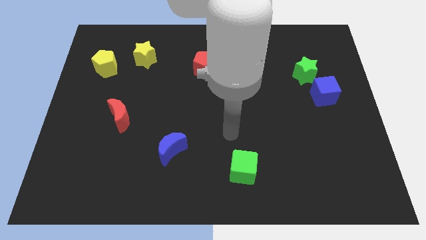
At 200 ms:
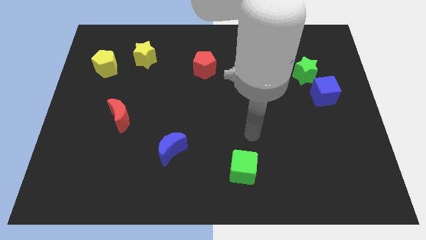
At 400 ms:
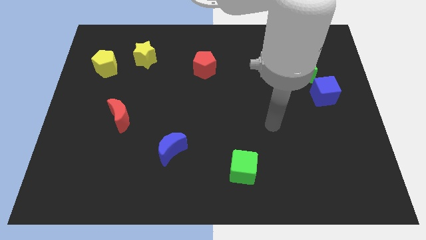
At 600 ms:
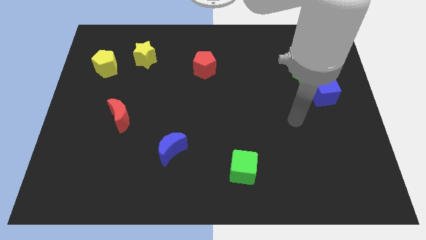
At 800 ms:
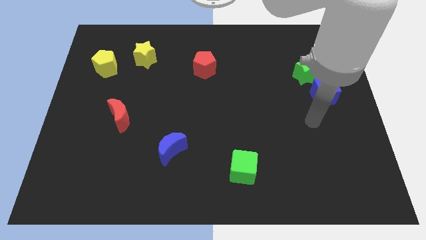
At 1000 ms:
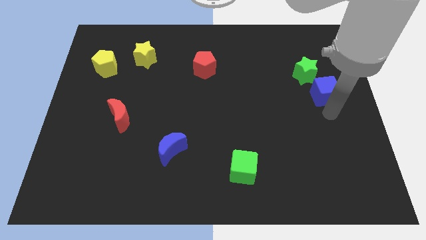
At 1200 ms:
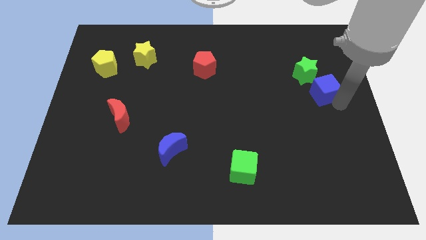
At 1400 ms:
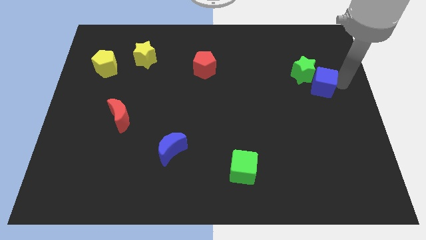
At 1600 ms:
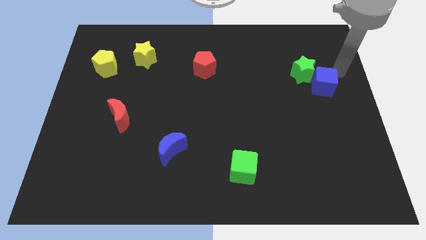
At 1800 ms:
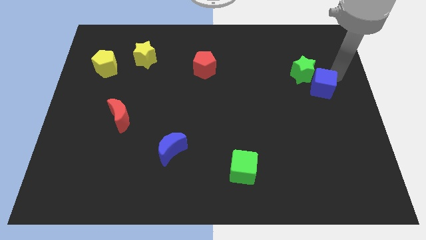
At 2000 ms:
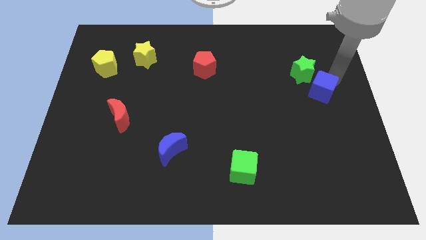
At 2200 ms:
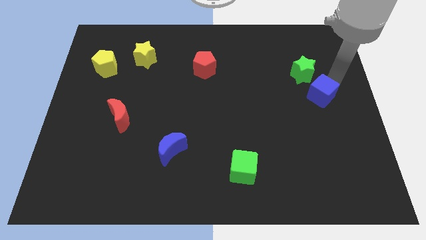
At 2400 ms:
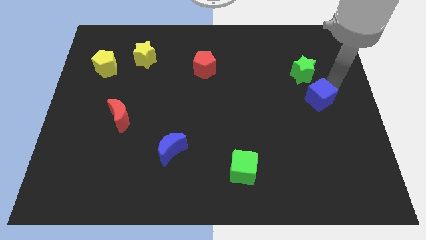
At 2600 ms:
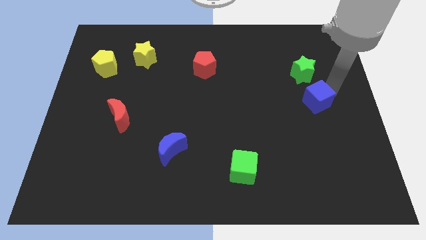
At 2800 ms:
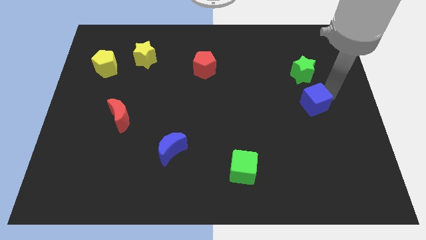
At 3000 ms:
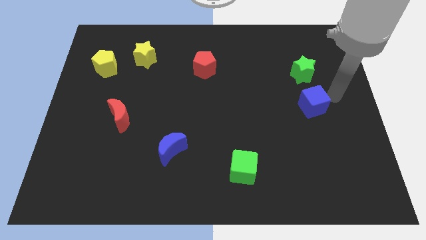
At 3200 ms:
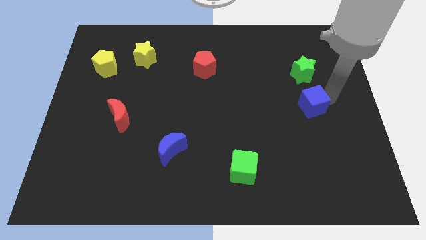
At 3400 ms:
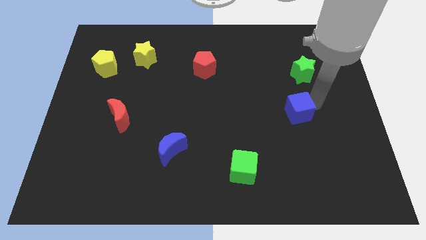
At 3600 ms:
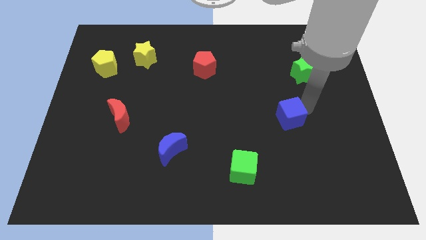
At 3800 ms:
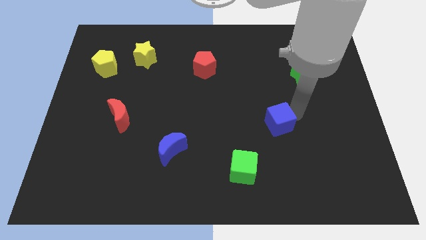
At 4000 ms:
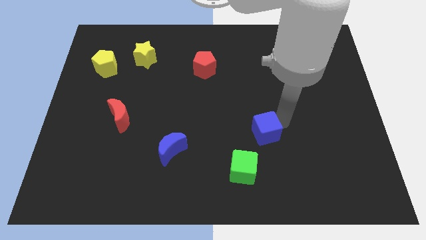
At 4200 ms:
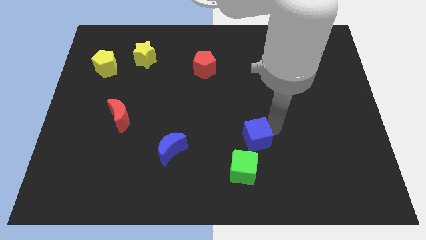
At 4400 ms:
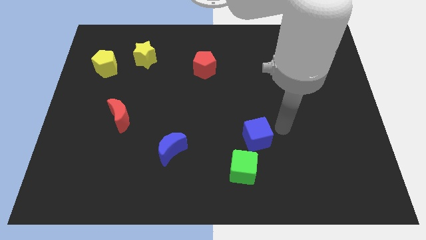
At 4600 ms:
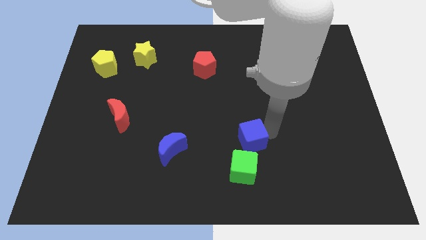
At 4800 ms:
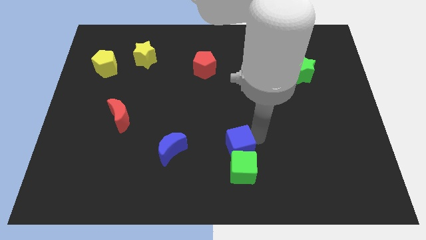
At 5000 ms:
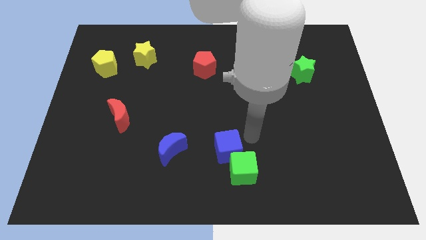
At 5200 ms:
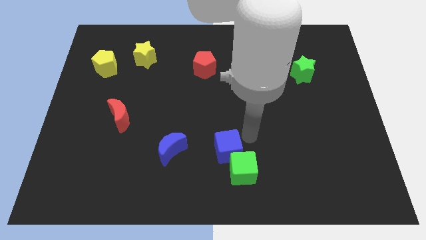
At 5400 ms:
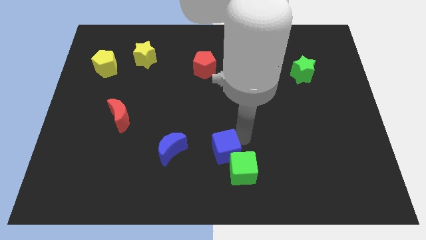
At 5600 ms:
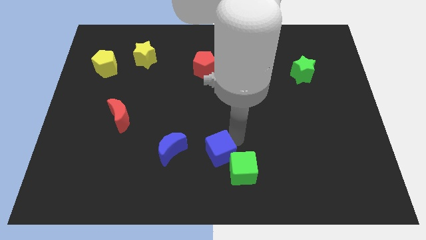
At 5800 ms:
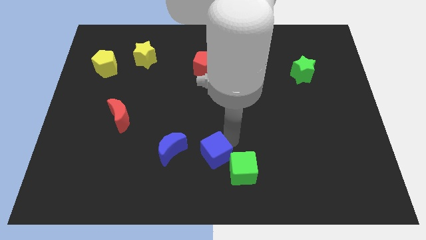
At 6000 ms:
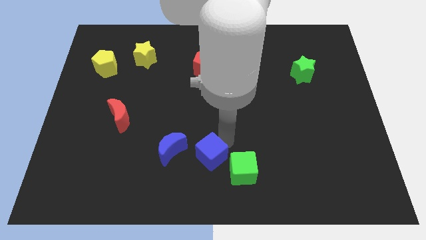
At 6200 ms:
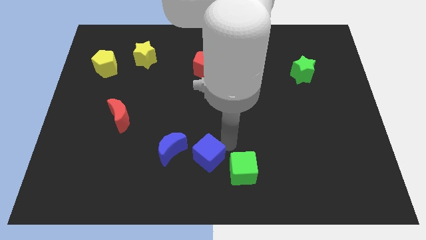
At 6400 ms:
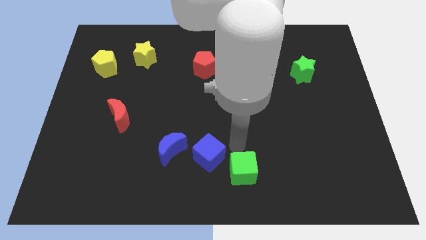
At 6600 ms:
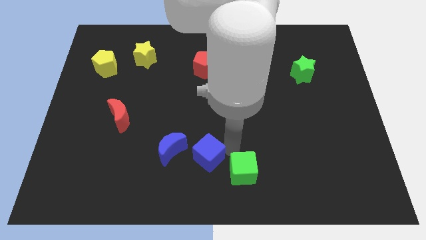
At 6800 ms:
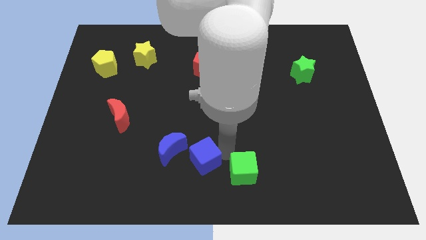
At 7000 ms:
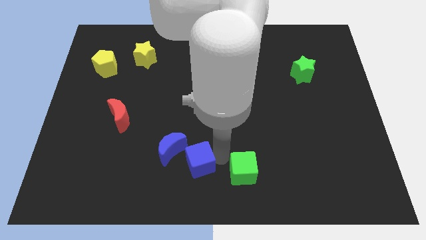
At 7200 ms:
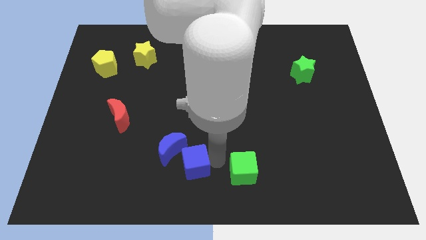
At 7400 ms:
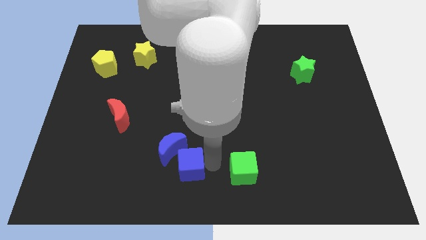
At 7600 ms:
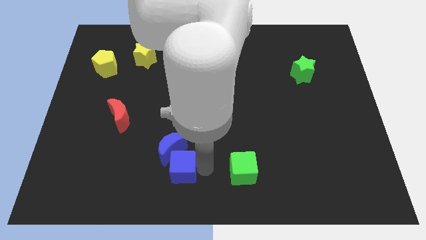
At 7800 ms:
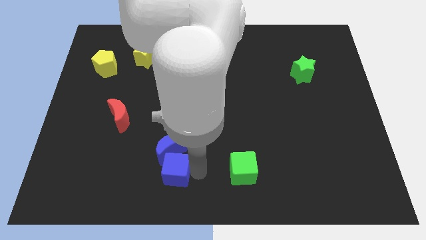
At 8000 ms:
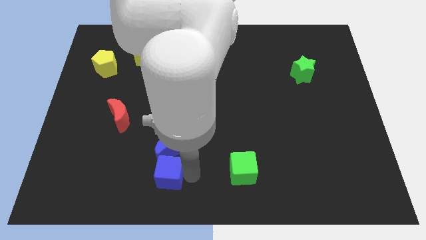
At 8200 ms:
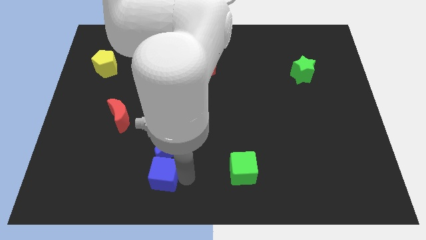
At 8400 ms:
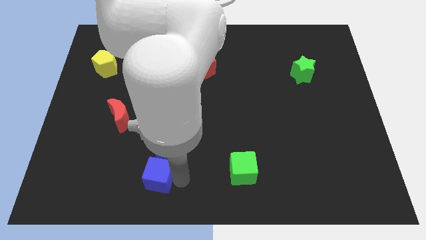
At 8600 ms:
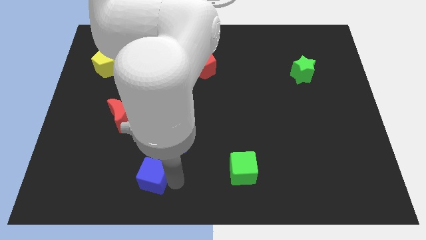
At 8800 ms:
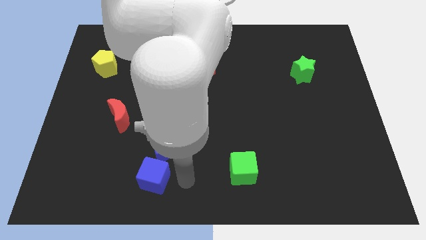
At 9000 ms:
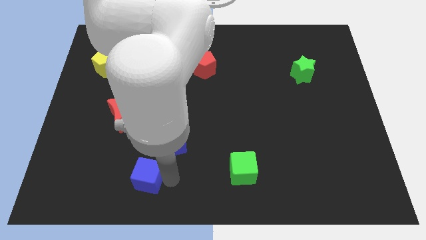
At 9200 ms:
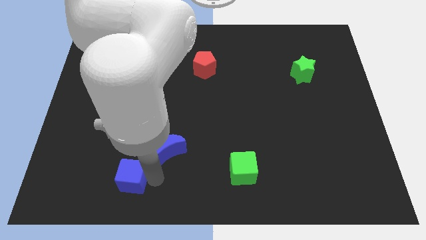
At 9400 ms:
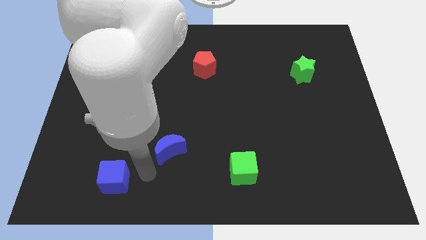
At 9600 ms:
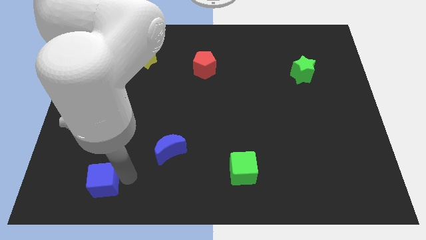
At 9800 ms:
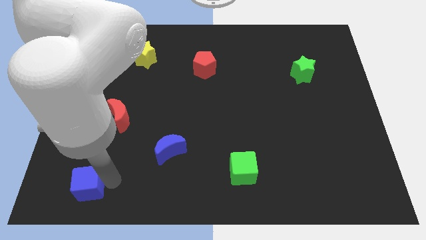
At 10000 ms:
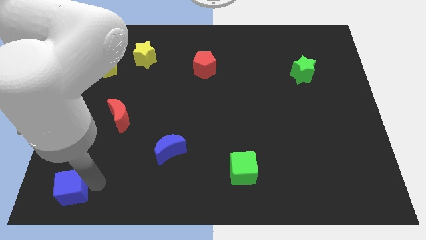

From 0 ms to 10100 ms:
move the blue cube to the bottom left corner

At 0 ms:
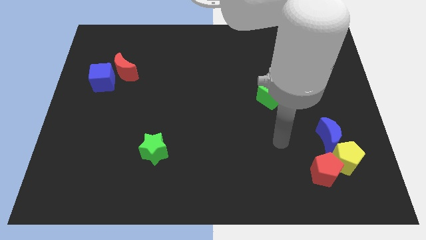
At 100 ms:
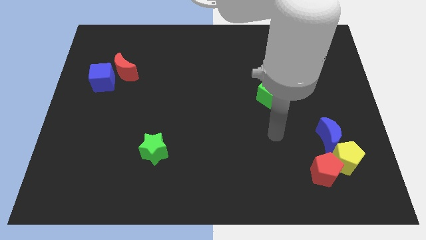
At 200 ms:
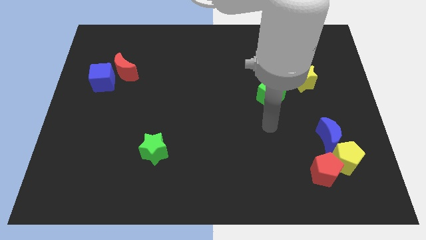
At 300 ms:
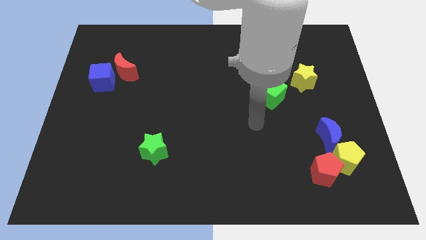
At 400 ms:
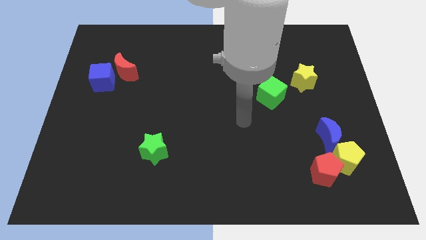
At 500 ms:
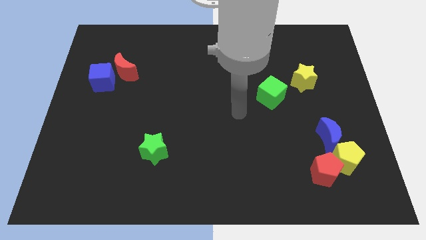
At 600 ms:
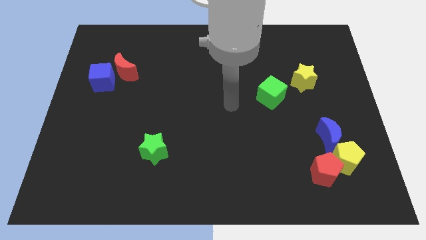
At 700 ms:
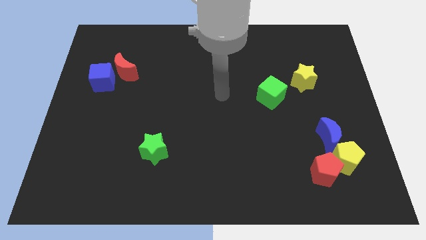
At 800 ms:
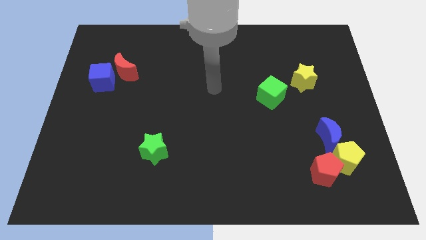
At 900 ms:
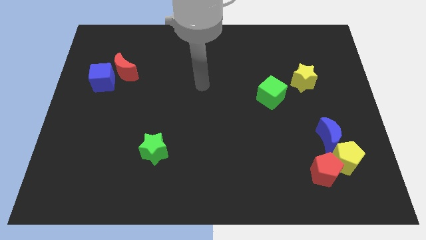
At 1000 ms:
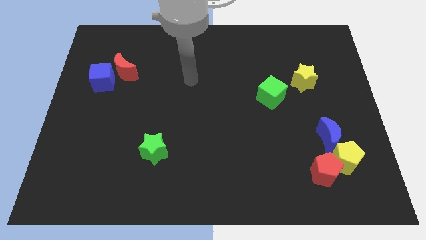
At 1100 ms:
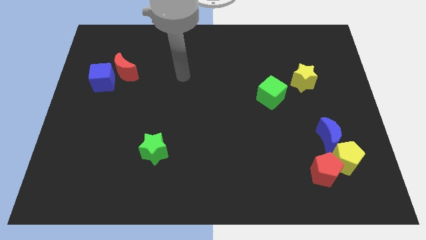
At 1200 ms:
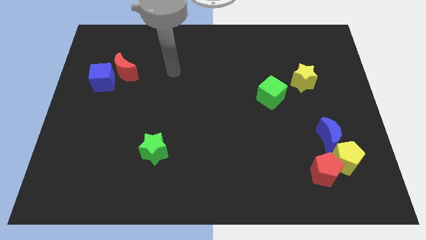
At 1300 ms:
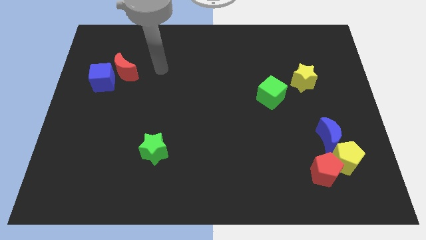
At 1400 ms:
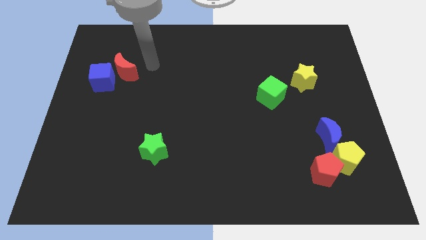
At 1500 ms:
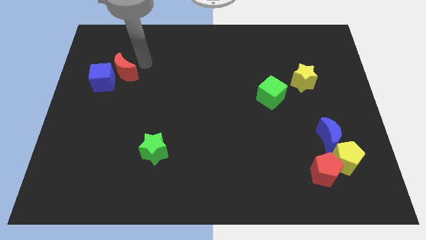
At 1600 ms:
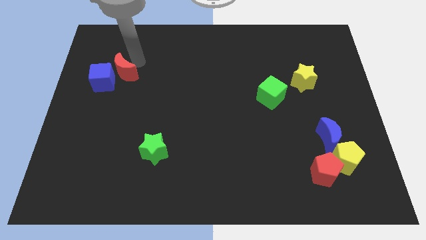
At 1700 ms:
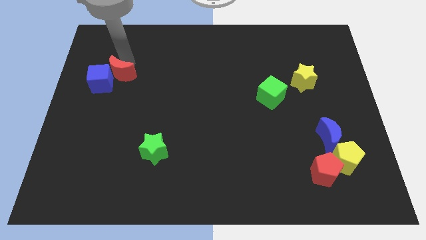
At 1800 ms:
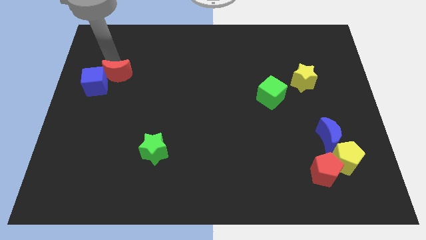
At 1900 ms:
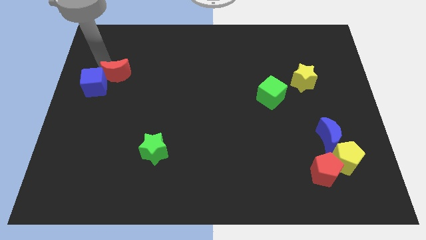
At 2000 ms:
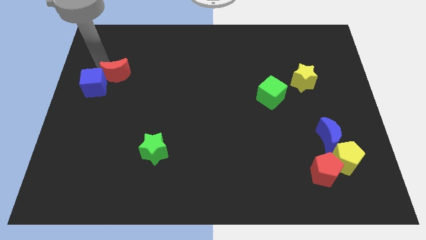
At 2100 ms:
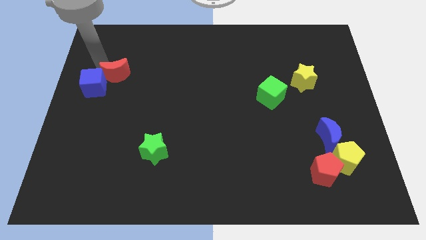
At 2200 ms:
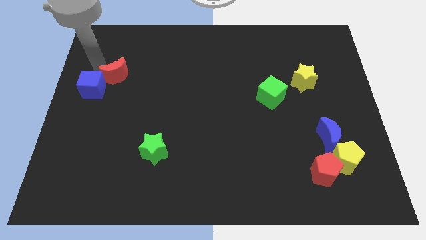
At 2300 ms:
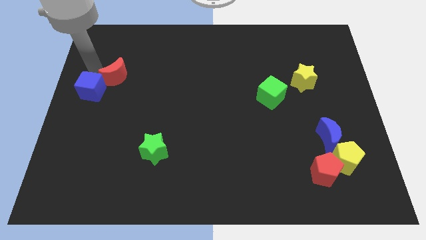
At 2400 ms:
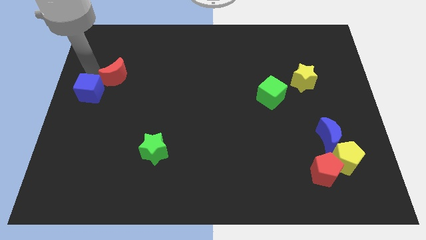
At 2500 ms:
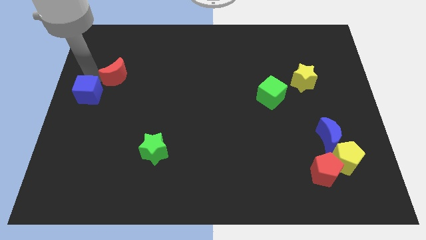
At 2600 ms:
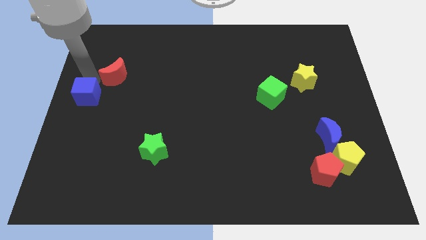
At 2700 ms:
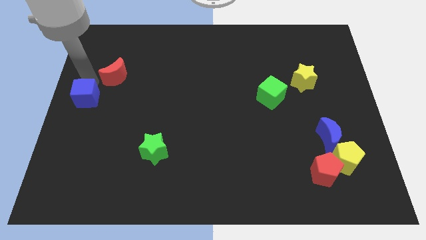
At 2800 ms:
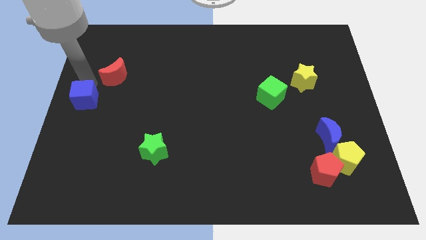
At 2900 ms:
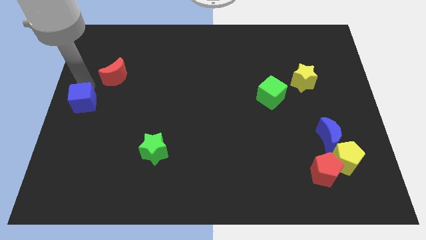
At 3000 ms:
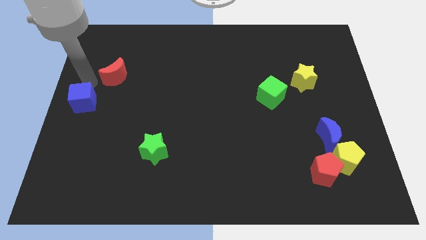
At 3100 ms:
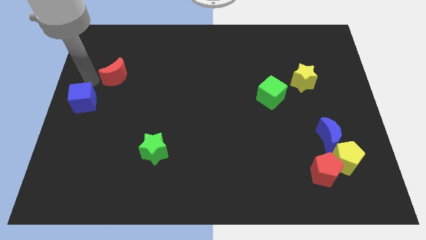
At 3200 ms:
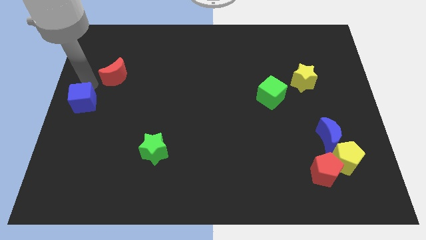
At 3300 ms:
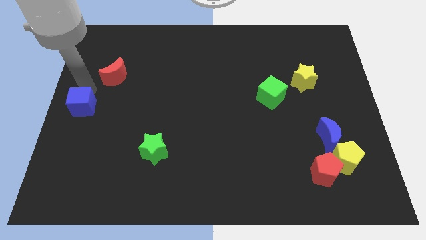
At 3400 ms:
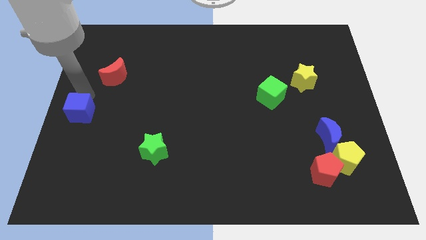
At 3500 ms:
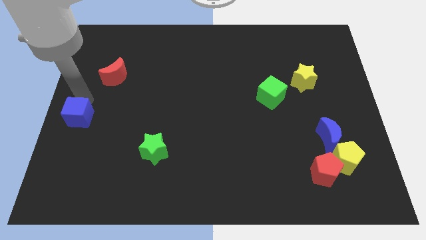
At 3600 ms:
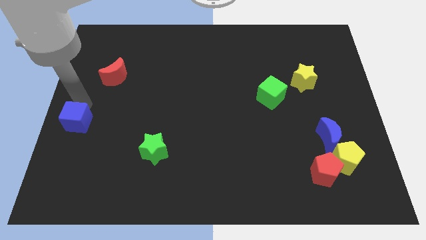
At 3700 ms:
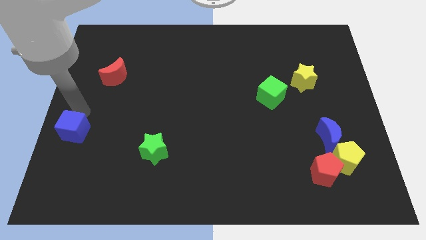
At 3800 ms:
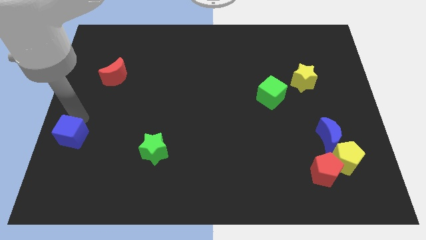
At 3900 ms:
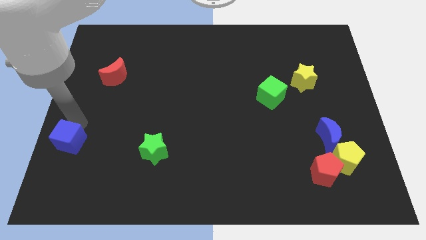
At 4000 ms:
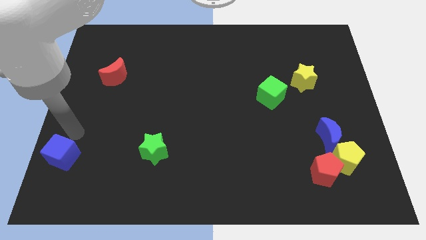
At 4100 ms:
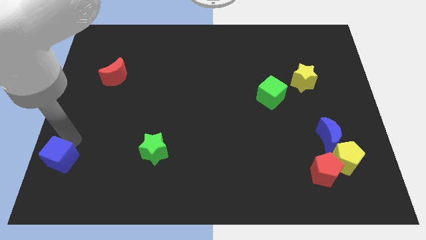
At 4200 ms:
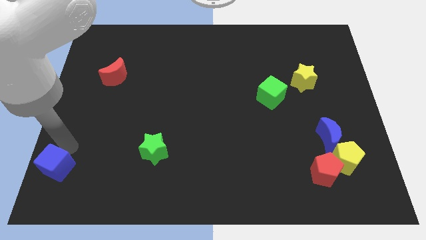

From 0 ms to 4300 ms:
push the blue cube to the bottom left corner
